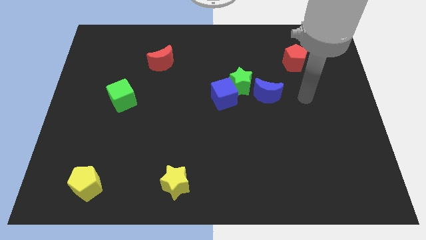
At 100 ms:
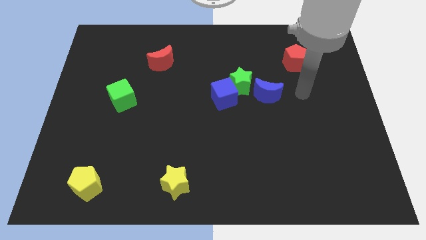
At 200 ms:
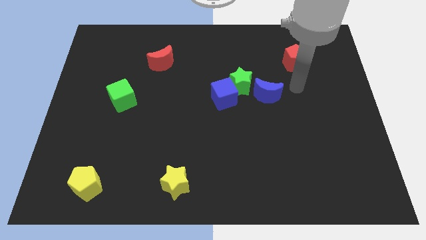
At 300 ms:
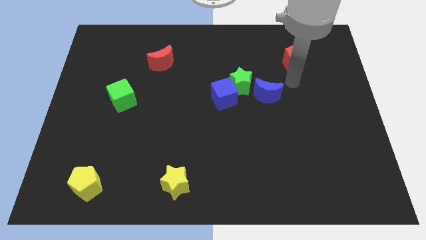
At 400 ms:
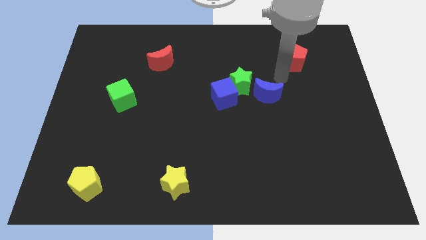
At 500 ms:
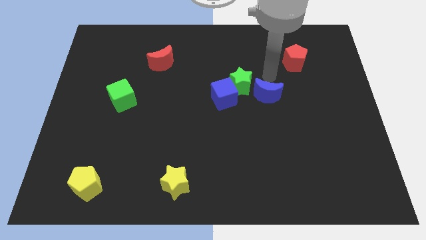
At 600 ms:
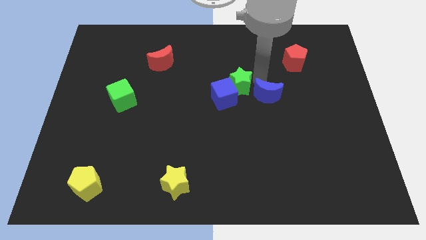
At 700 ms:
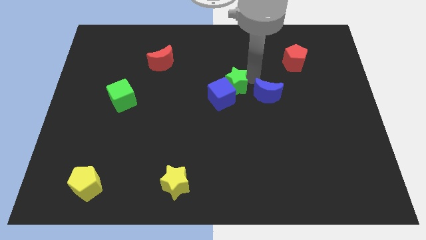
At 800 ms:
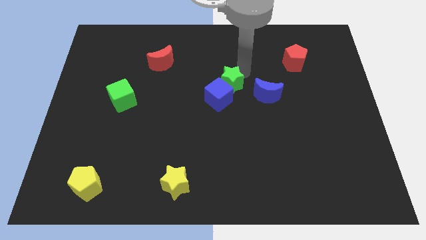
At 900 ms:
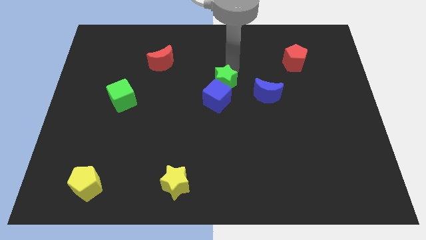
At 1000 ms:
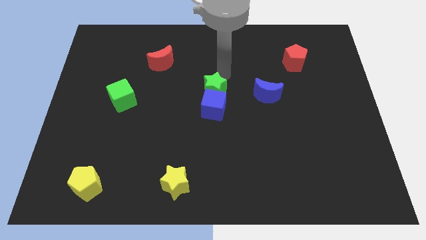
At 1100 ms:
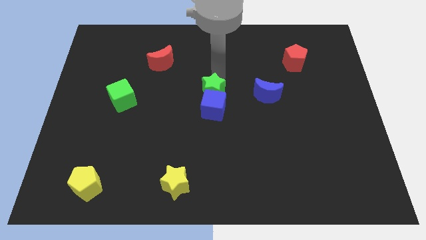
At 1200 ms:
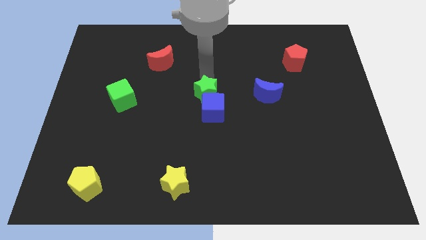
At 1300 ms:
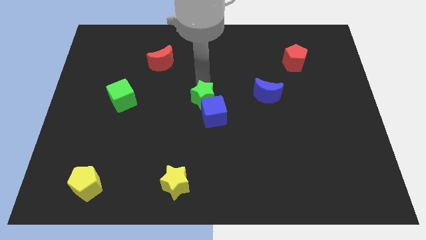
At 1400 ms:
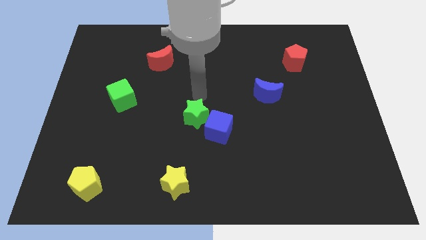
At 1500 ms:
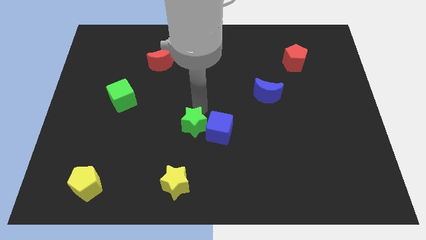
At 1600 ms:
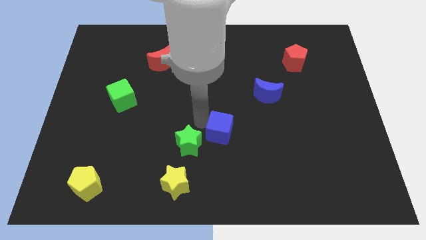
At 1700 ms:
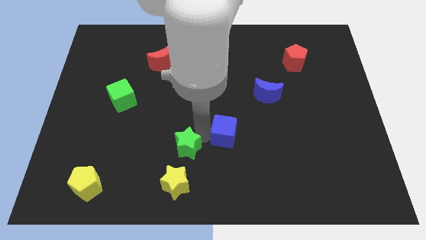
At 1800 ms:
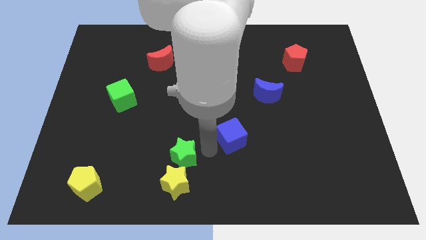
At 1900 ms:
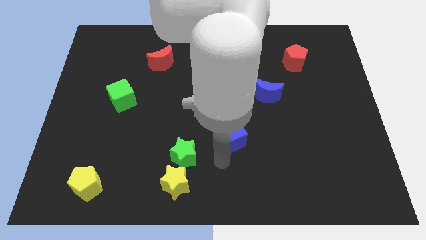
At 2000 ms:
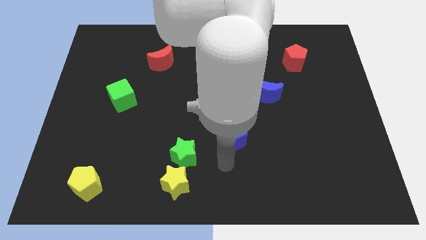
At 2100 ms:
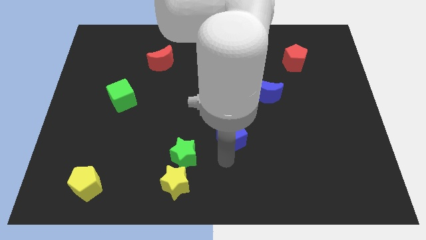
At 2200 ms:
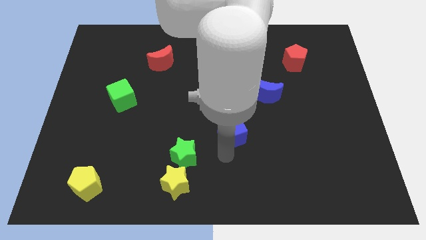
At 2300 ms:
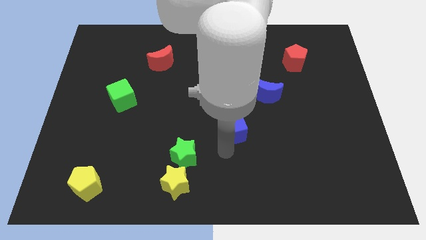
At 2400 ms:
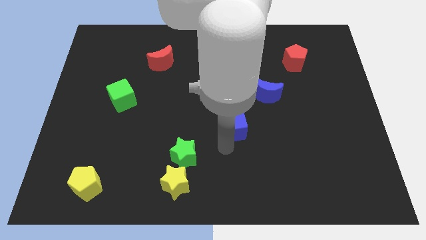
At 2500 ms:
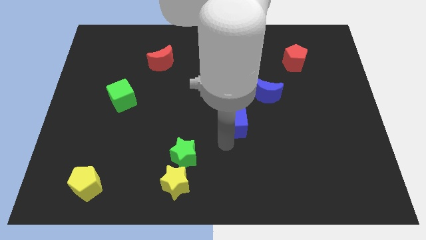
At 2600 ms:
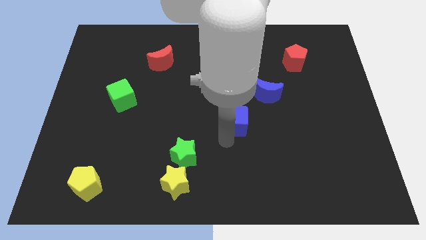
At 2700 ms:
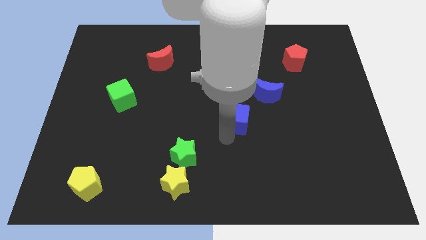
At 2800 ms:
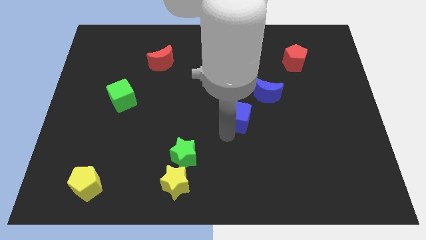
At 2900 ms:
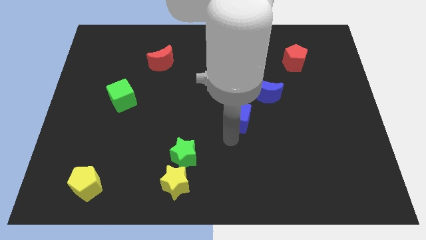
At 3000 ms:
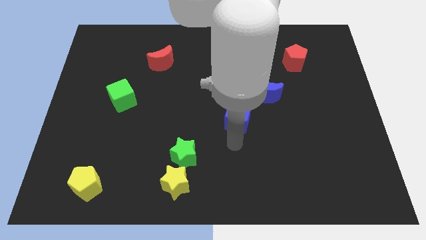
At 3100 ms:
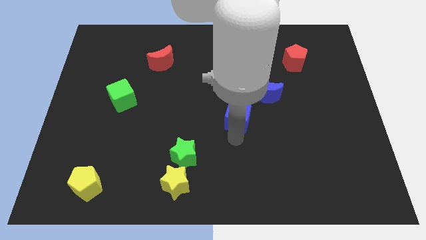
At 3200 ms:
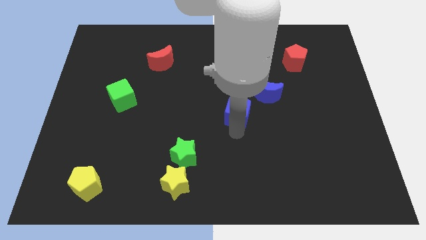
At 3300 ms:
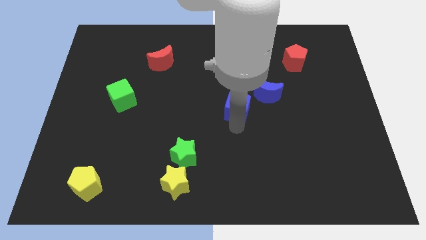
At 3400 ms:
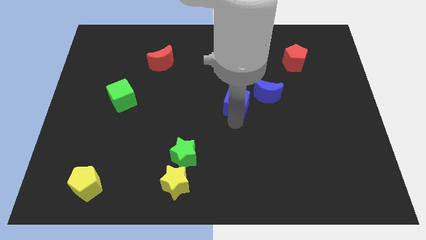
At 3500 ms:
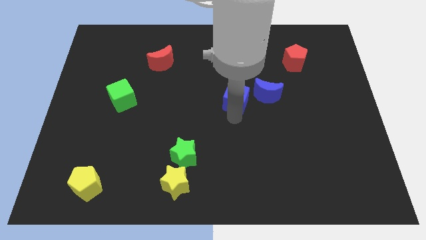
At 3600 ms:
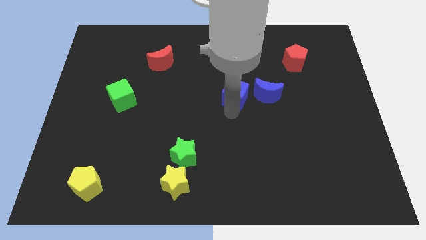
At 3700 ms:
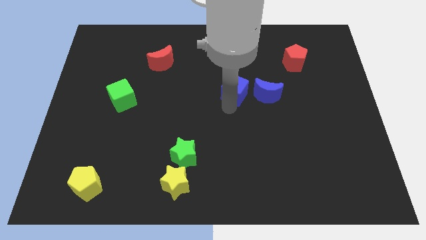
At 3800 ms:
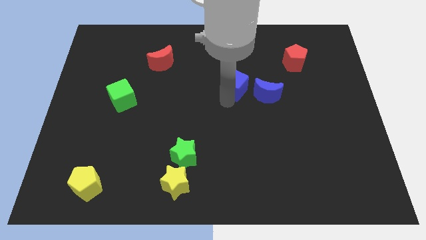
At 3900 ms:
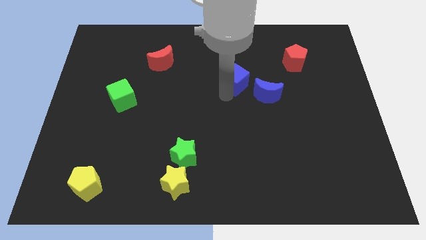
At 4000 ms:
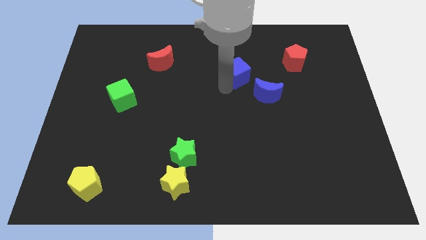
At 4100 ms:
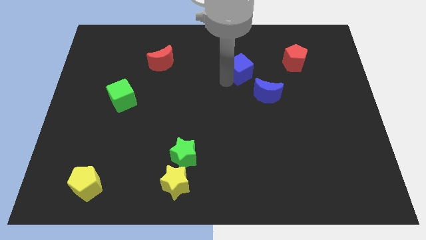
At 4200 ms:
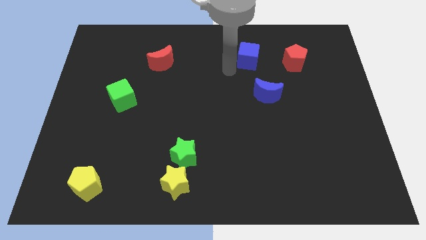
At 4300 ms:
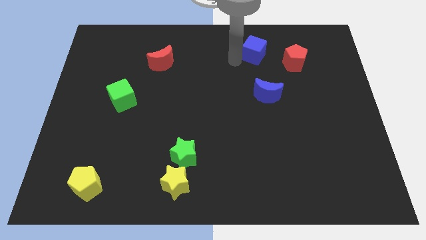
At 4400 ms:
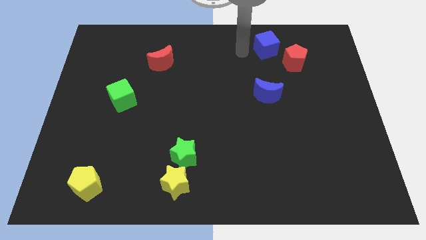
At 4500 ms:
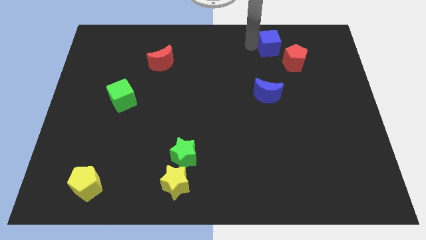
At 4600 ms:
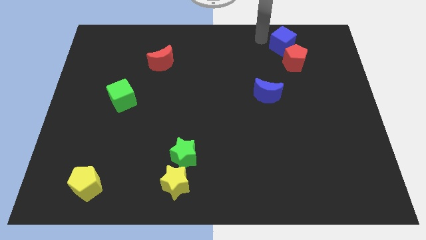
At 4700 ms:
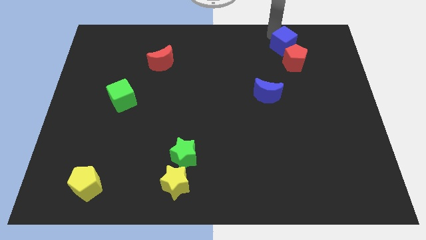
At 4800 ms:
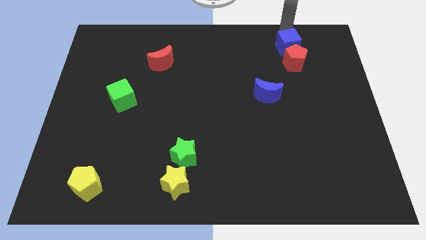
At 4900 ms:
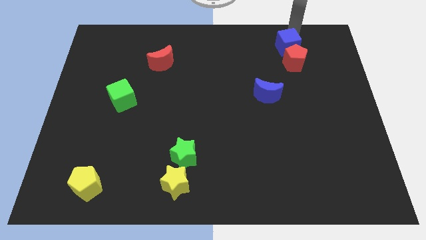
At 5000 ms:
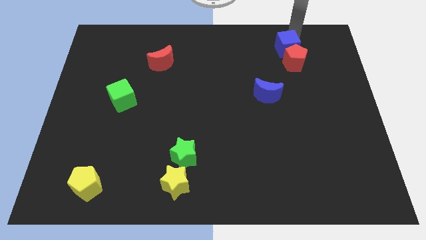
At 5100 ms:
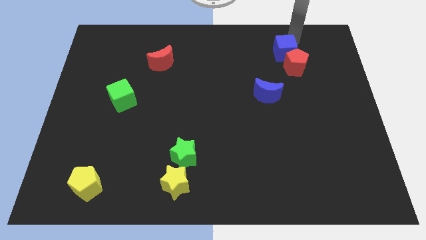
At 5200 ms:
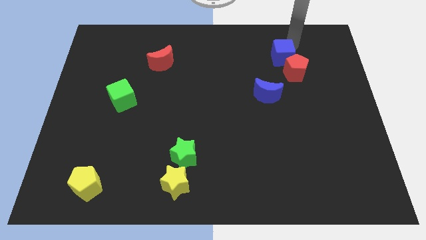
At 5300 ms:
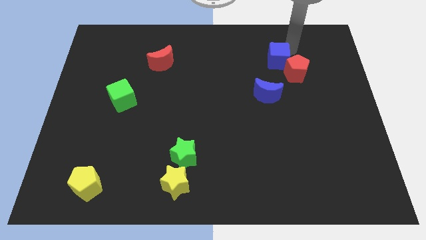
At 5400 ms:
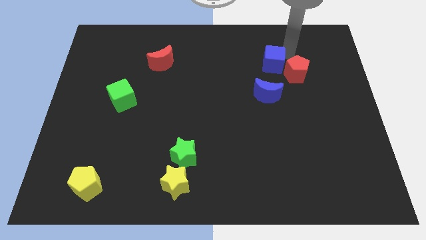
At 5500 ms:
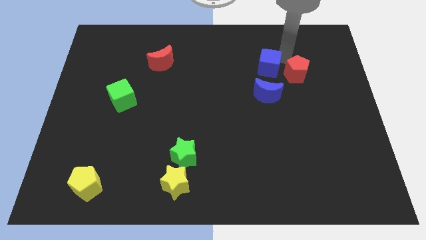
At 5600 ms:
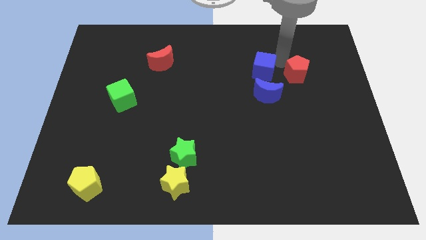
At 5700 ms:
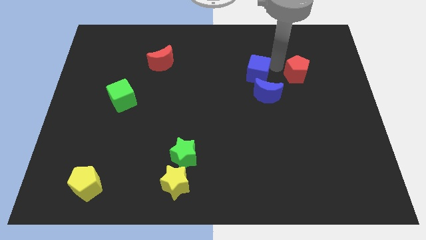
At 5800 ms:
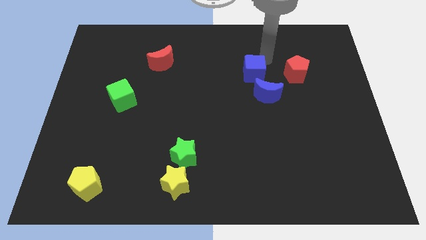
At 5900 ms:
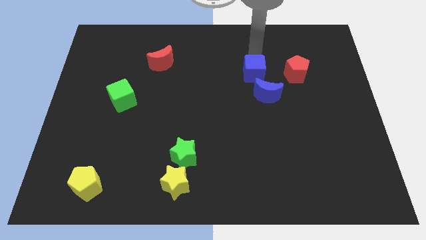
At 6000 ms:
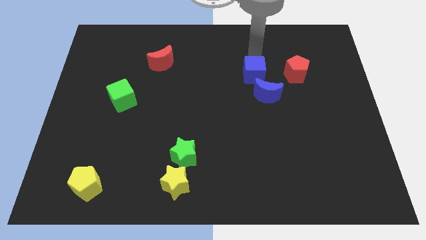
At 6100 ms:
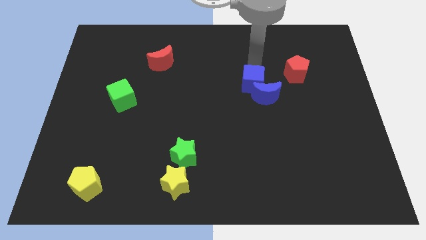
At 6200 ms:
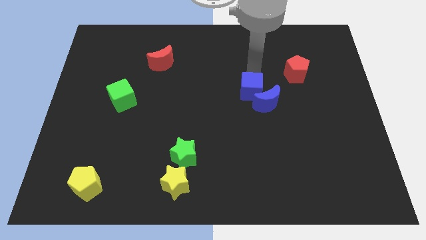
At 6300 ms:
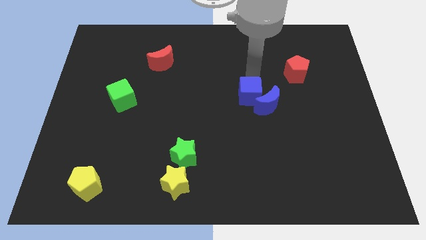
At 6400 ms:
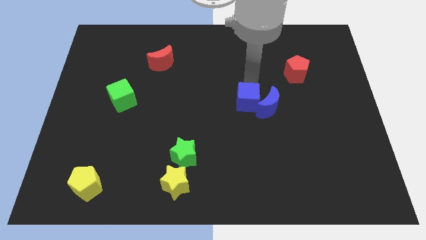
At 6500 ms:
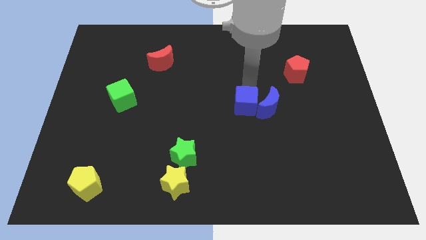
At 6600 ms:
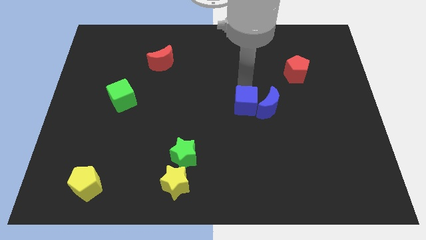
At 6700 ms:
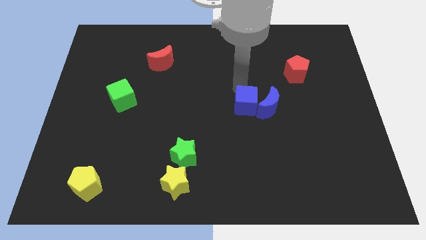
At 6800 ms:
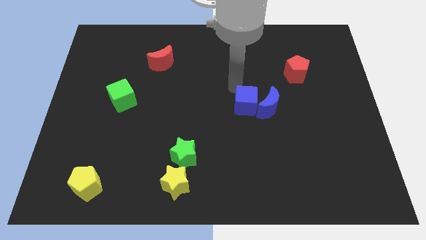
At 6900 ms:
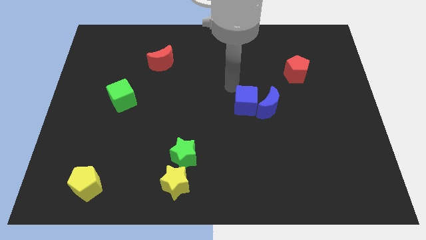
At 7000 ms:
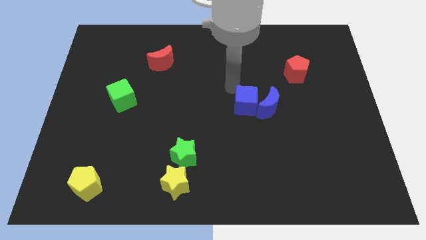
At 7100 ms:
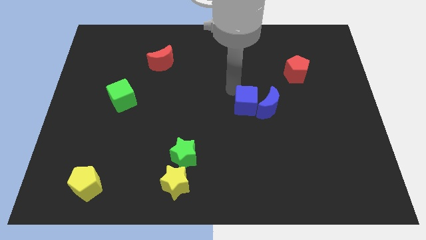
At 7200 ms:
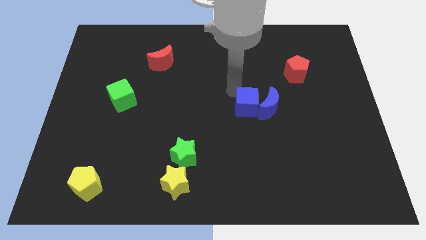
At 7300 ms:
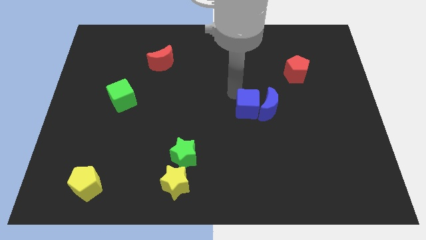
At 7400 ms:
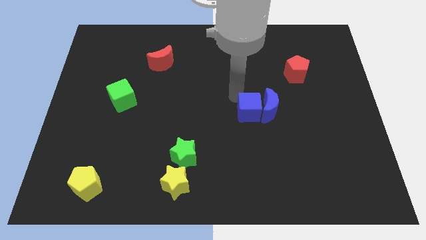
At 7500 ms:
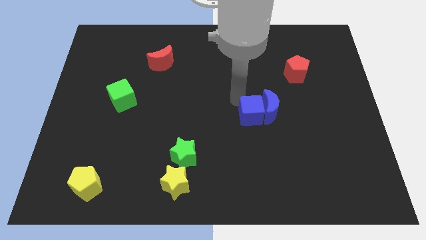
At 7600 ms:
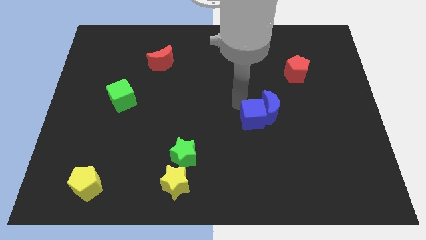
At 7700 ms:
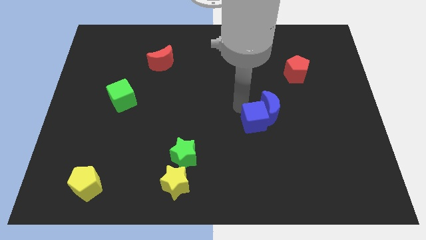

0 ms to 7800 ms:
move the blue cube to the bottom of the blue moon

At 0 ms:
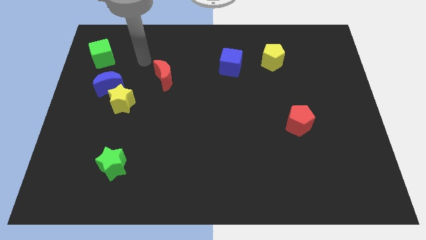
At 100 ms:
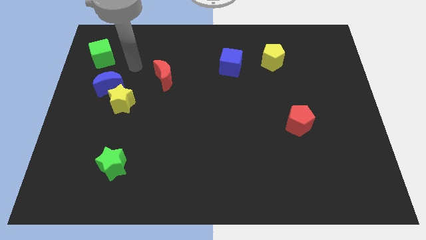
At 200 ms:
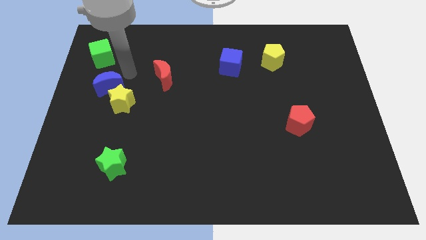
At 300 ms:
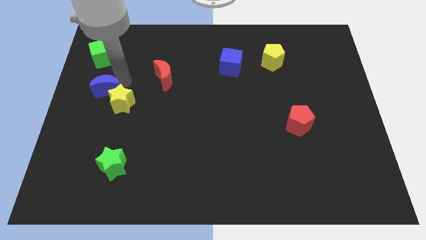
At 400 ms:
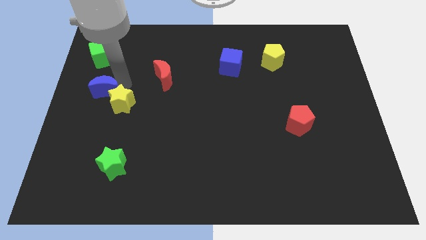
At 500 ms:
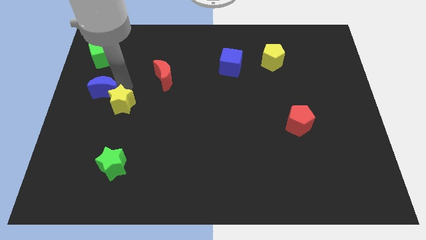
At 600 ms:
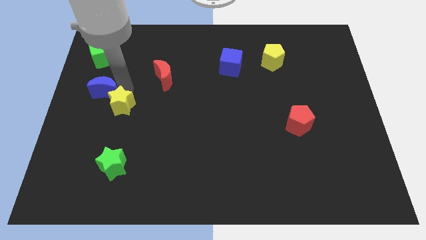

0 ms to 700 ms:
put the yellow star to the top of the green star
